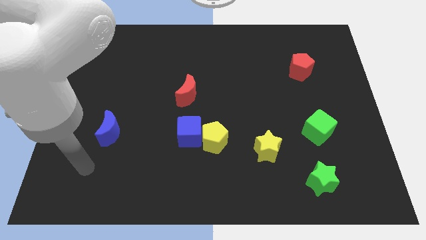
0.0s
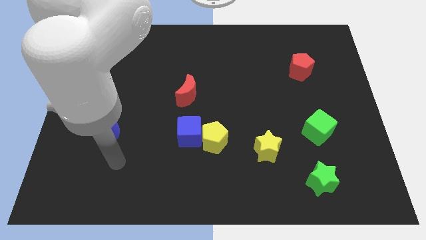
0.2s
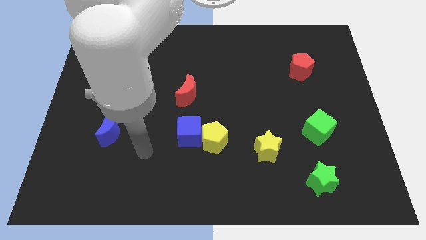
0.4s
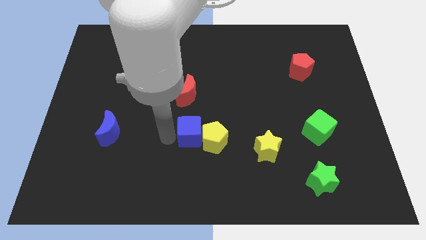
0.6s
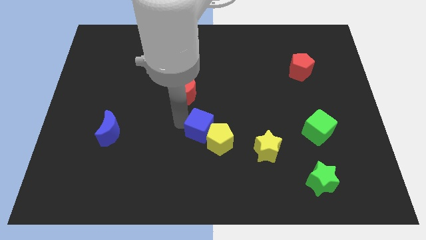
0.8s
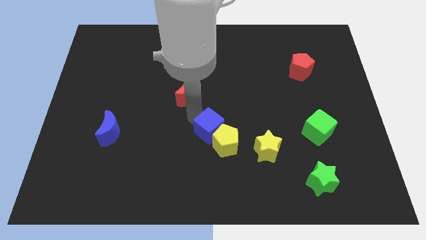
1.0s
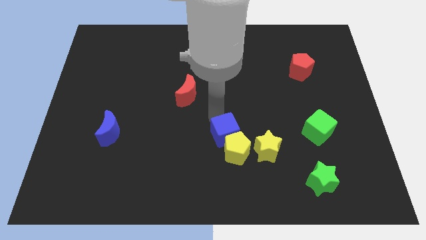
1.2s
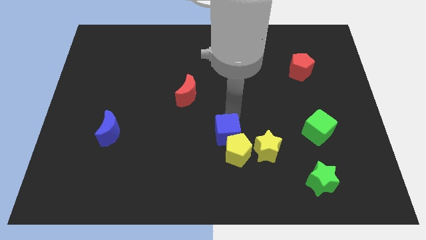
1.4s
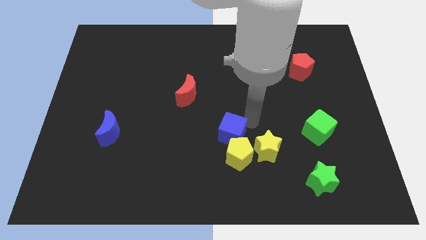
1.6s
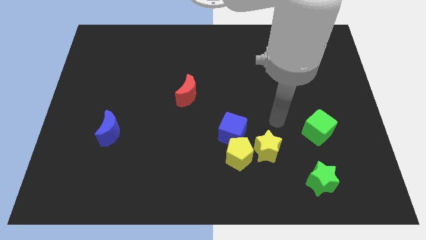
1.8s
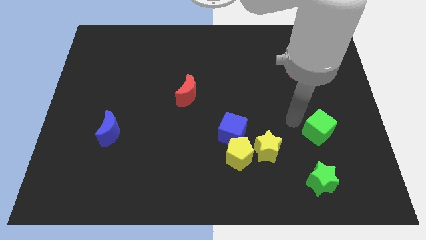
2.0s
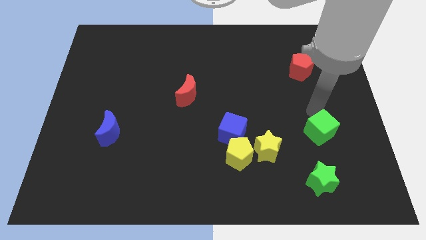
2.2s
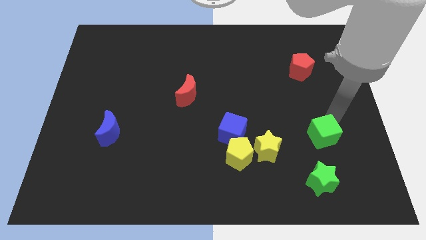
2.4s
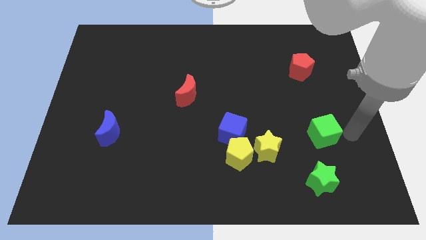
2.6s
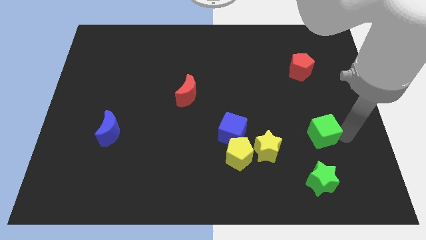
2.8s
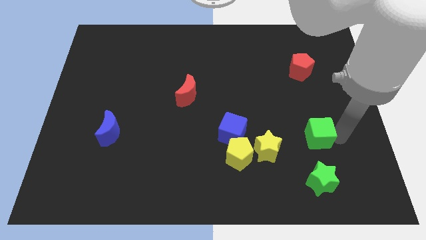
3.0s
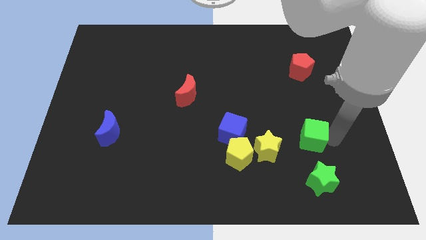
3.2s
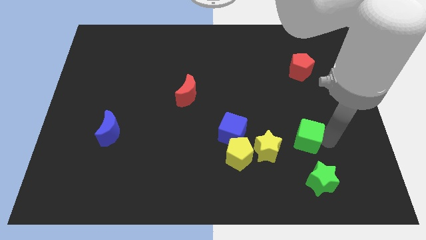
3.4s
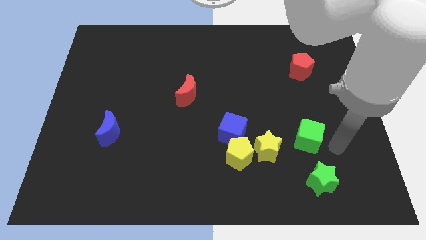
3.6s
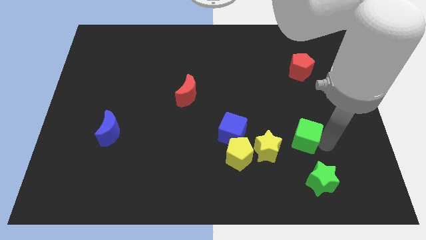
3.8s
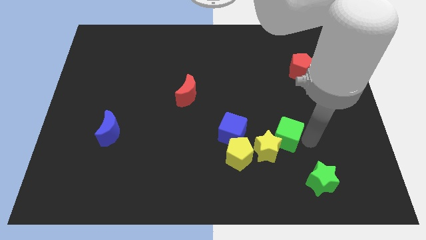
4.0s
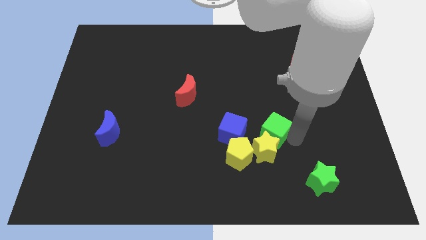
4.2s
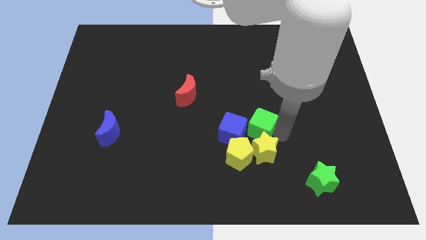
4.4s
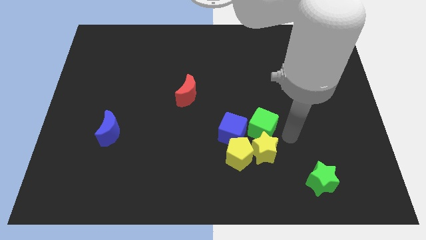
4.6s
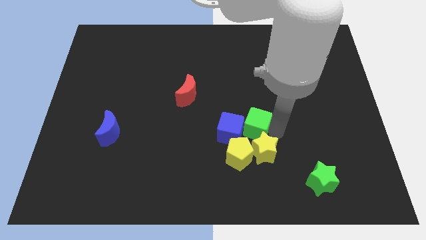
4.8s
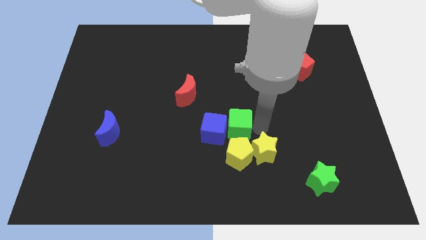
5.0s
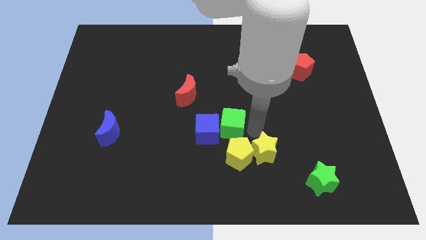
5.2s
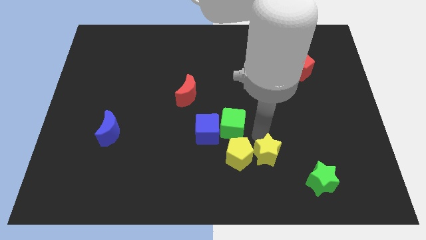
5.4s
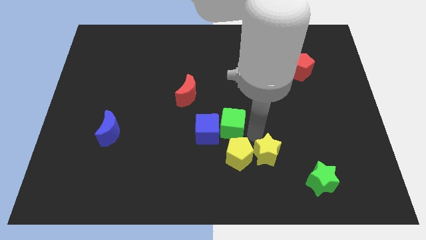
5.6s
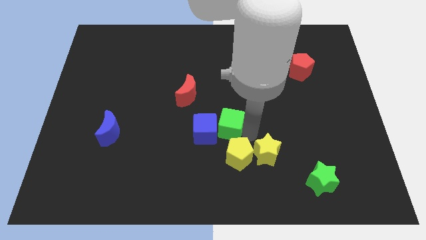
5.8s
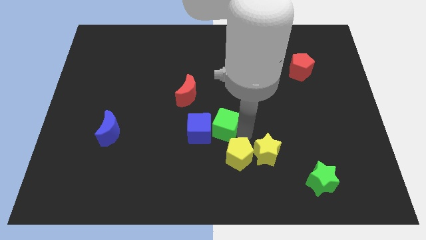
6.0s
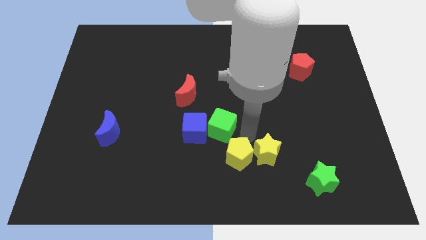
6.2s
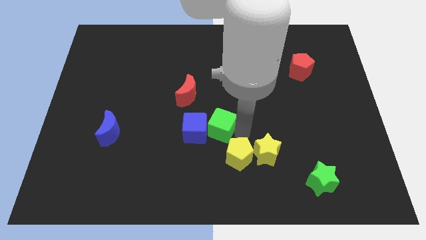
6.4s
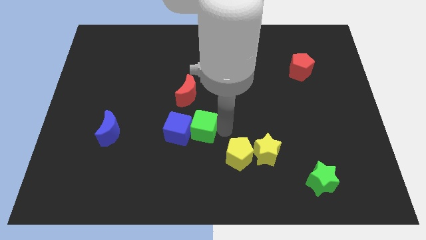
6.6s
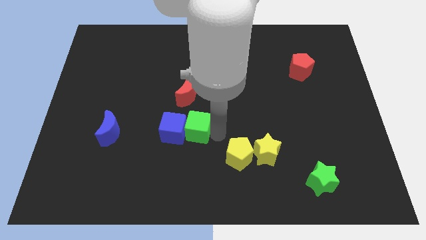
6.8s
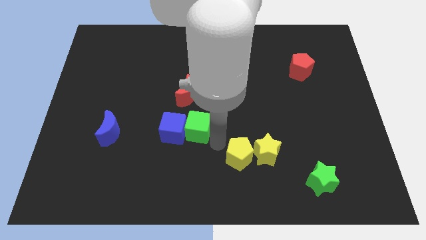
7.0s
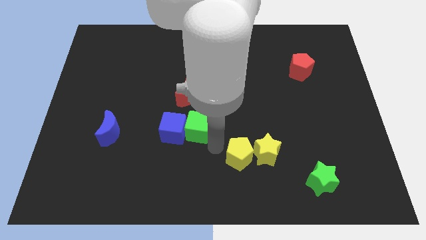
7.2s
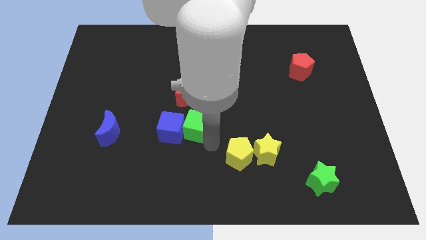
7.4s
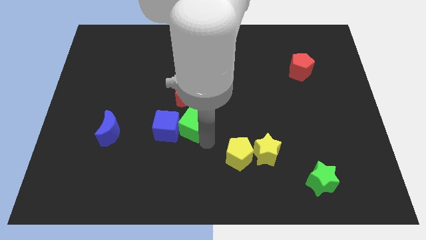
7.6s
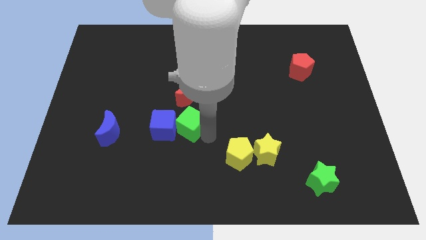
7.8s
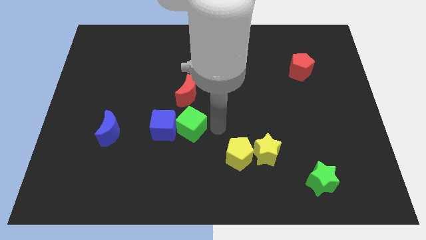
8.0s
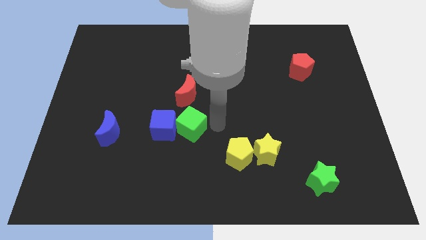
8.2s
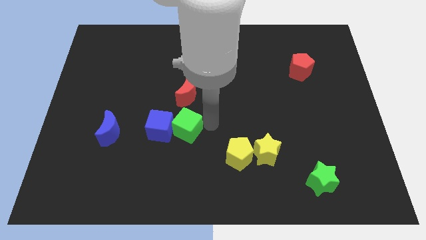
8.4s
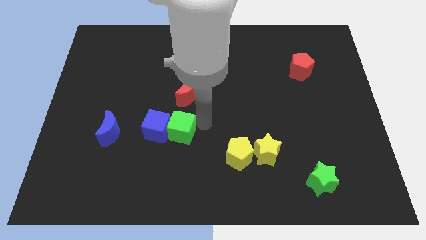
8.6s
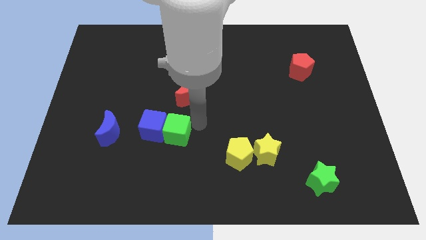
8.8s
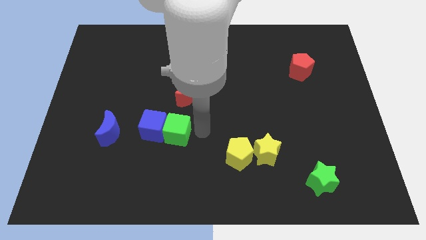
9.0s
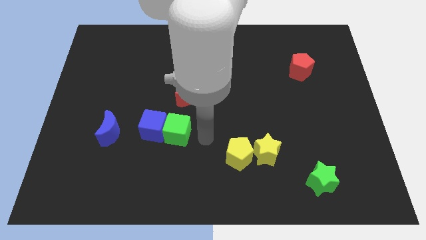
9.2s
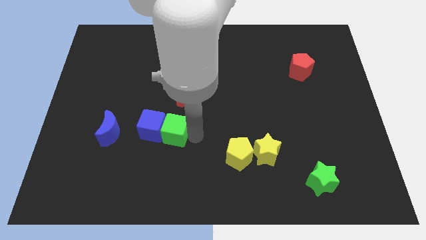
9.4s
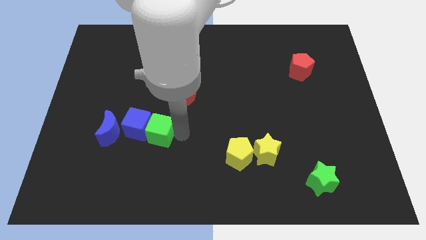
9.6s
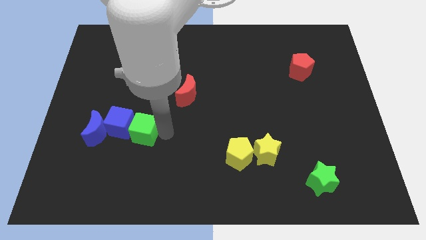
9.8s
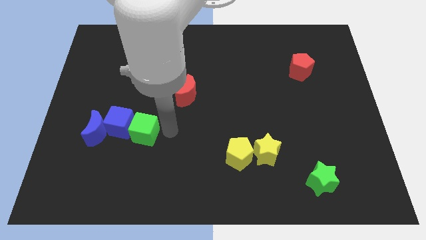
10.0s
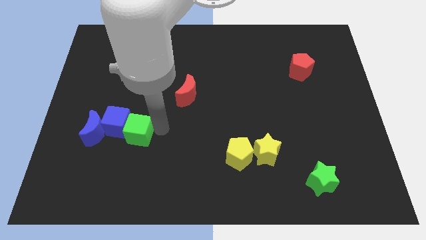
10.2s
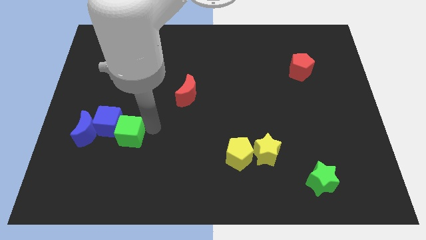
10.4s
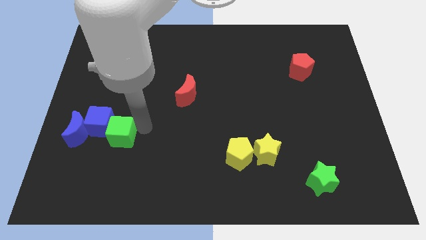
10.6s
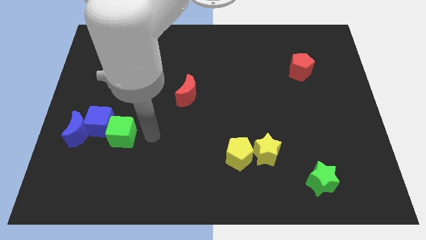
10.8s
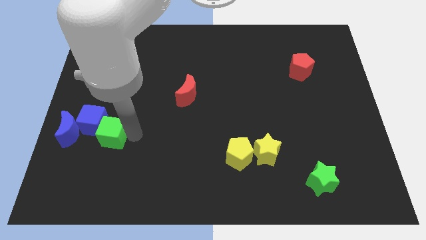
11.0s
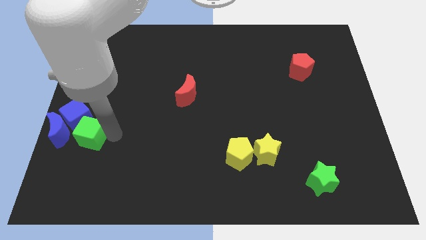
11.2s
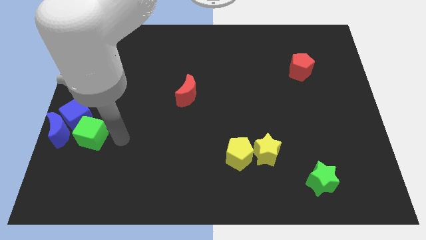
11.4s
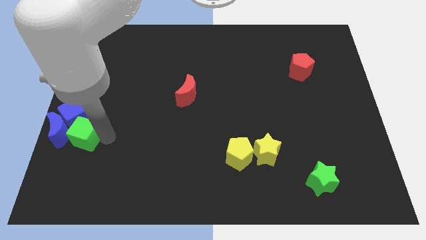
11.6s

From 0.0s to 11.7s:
push the green cube towards the blue moon
